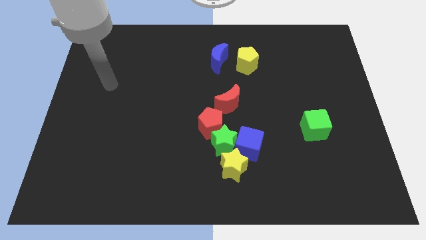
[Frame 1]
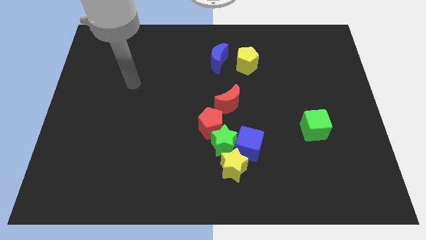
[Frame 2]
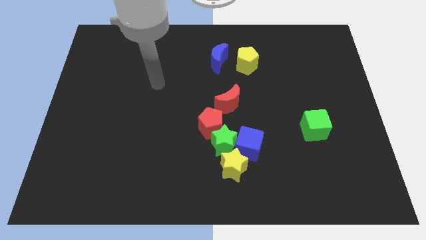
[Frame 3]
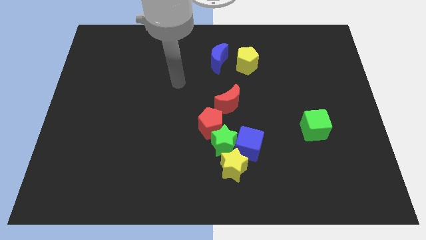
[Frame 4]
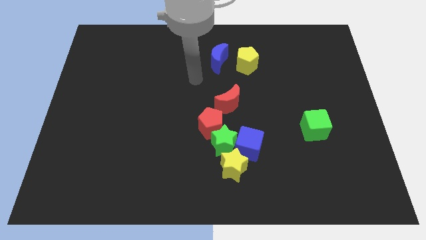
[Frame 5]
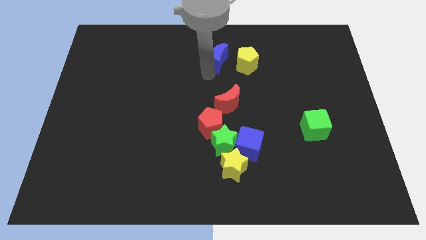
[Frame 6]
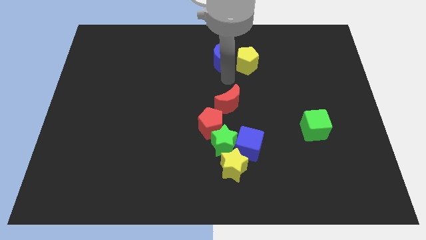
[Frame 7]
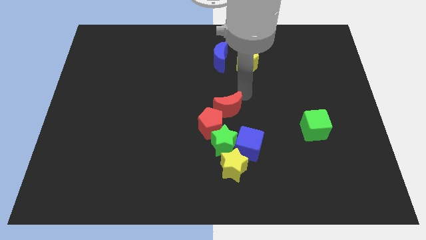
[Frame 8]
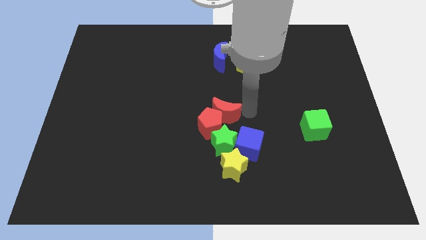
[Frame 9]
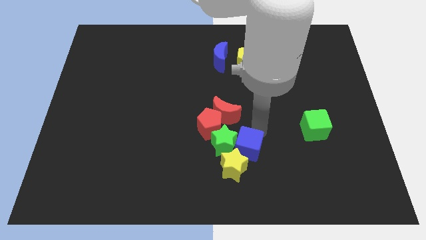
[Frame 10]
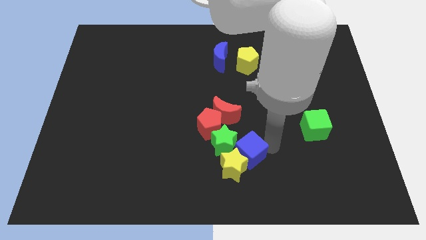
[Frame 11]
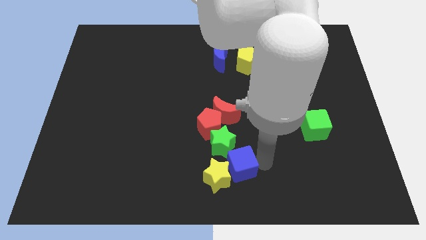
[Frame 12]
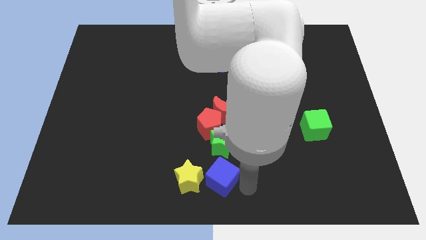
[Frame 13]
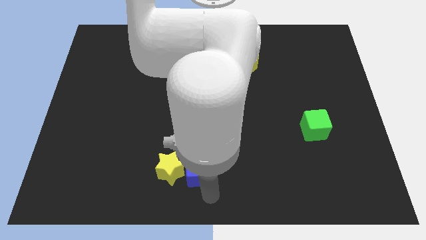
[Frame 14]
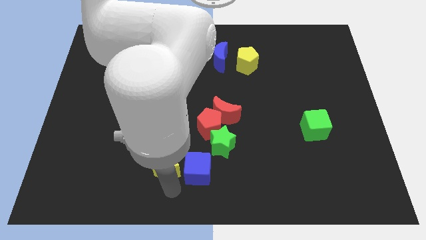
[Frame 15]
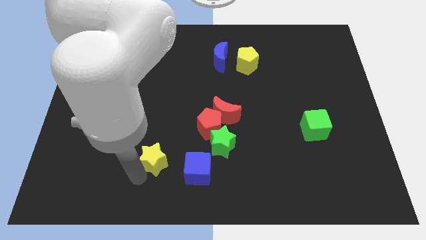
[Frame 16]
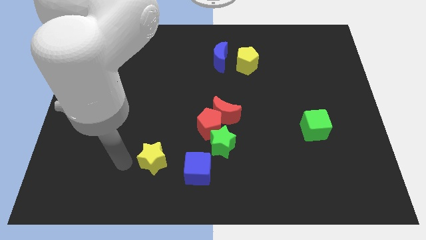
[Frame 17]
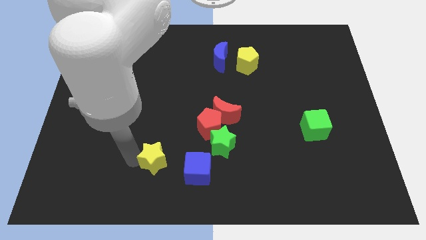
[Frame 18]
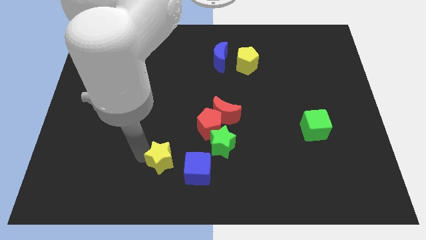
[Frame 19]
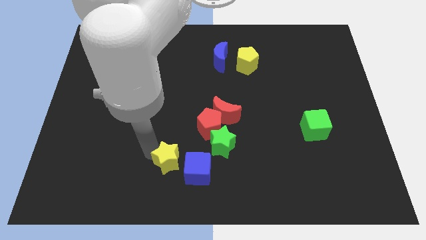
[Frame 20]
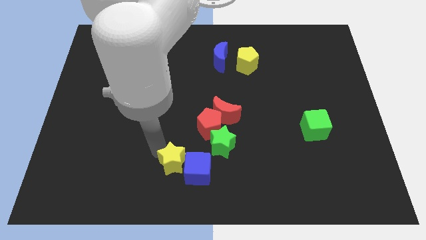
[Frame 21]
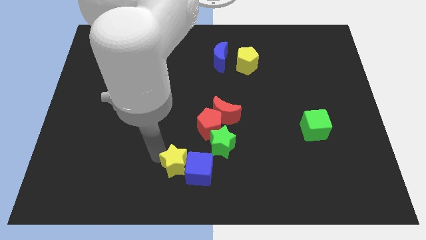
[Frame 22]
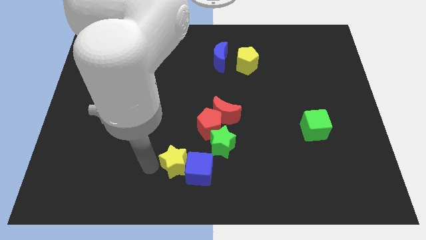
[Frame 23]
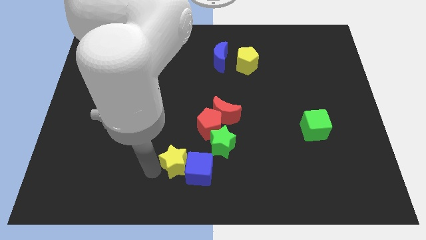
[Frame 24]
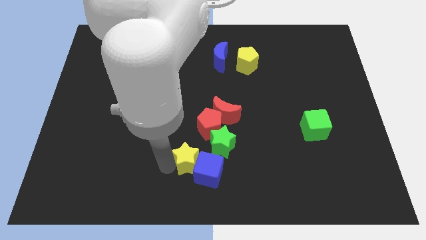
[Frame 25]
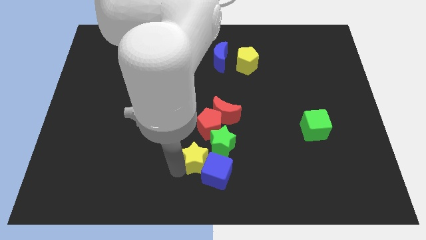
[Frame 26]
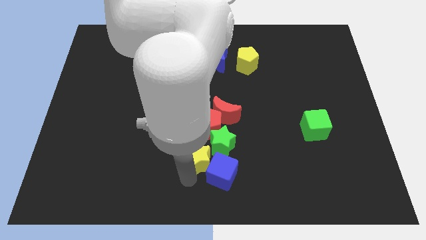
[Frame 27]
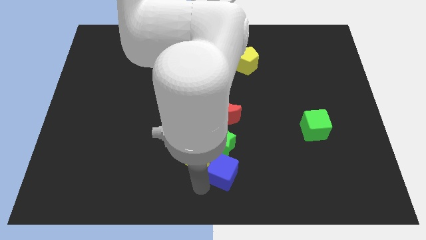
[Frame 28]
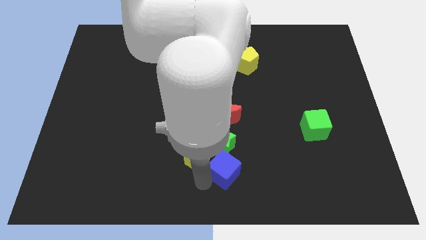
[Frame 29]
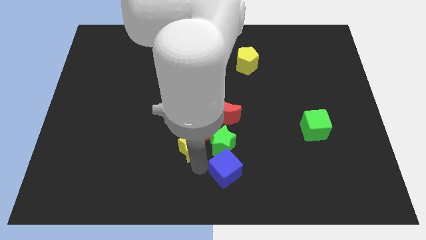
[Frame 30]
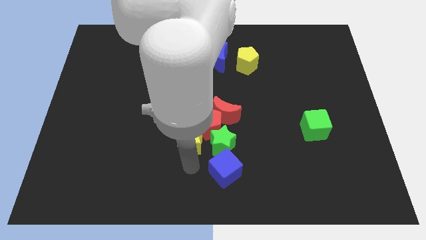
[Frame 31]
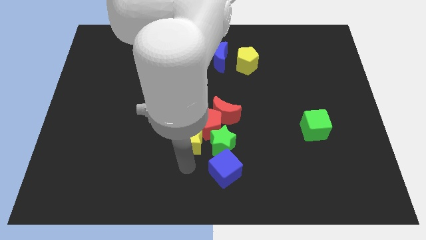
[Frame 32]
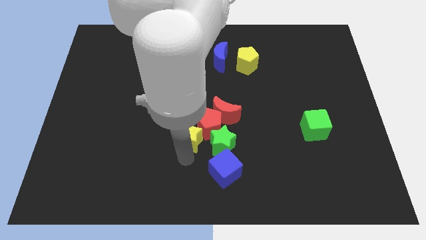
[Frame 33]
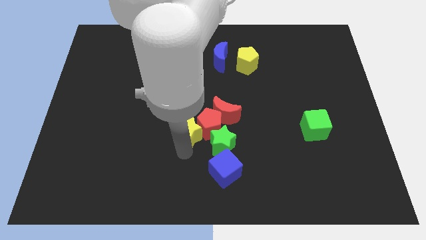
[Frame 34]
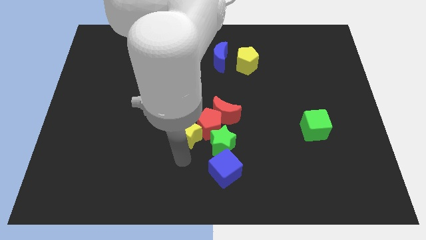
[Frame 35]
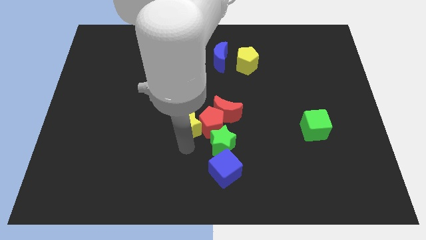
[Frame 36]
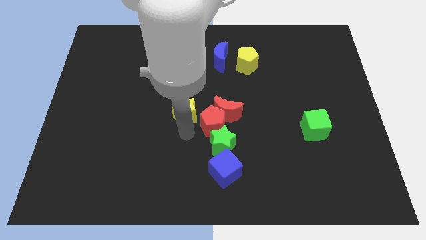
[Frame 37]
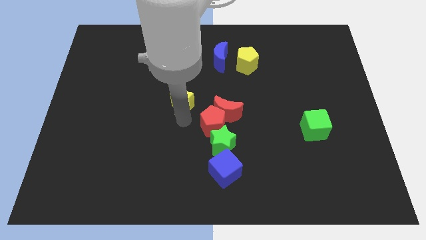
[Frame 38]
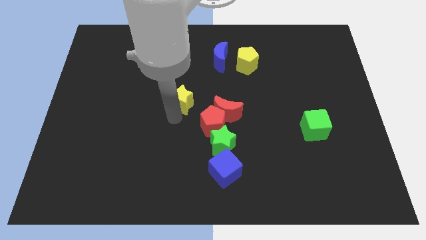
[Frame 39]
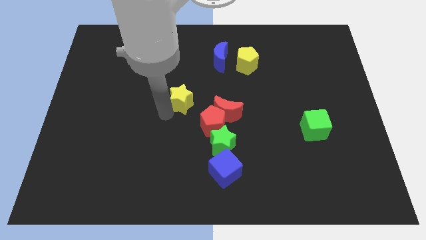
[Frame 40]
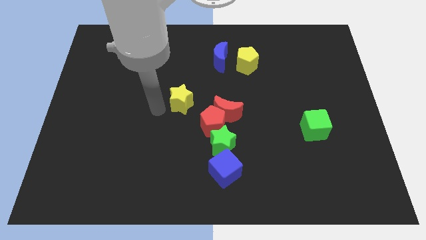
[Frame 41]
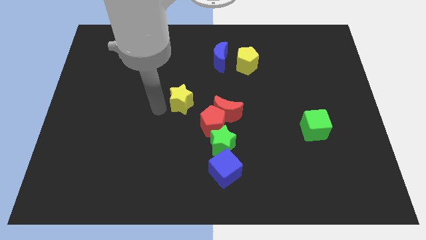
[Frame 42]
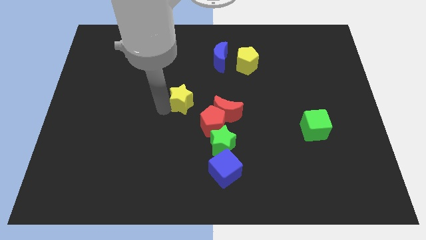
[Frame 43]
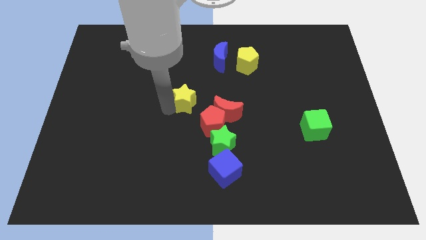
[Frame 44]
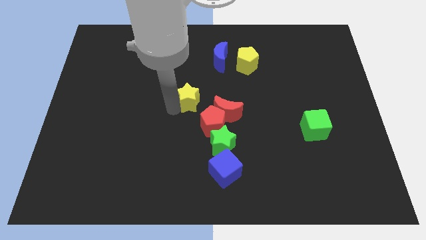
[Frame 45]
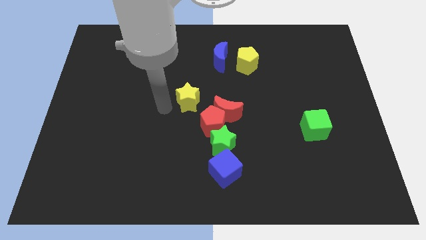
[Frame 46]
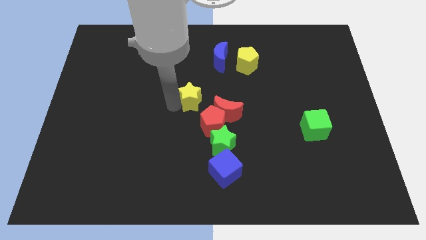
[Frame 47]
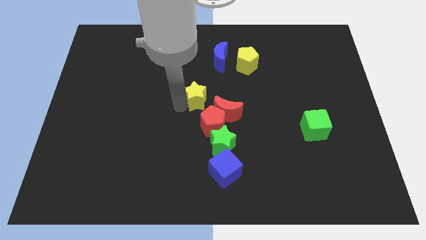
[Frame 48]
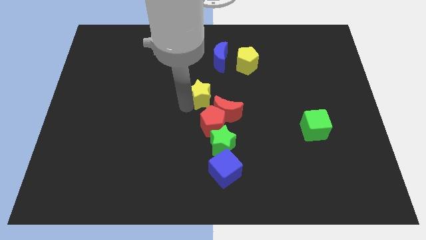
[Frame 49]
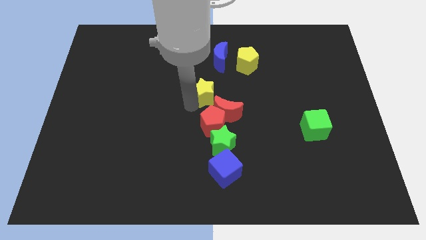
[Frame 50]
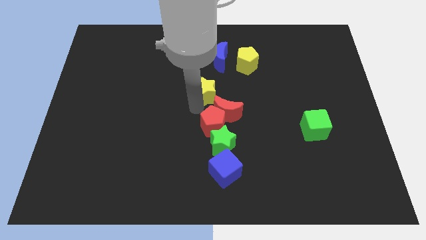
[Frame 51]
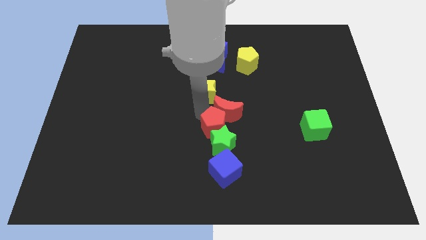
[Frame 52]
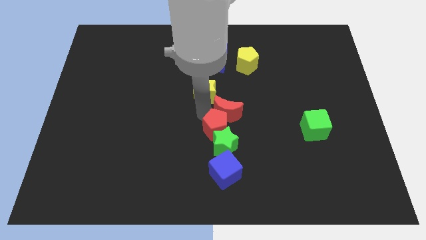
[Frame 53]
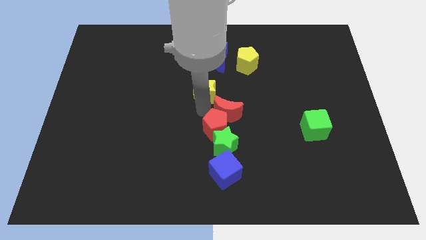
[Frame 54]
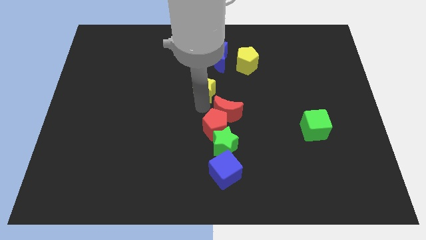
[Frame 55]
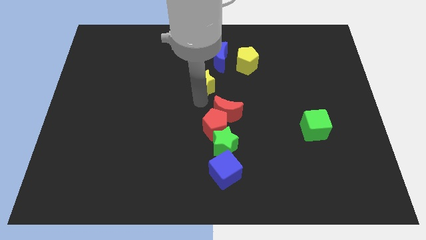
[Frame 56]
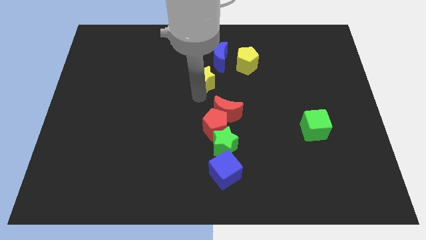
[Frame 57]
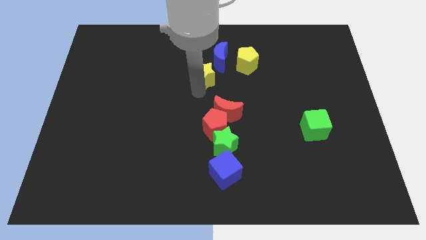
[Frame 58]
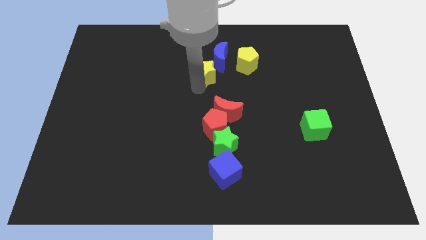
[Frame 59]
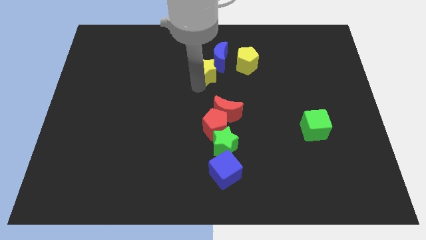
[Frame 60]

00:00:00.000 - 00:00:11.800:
put the yellow star towards the blue moon
